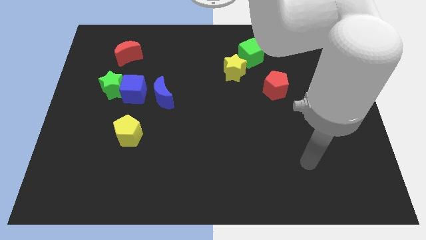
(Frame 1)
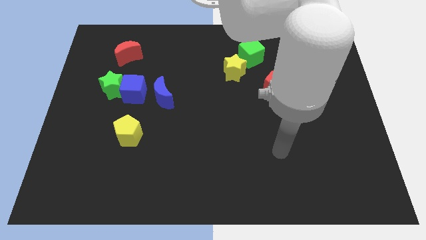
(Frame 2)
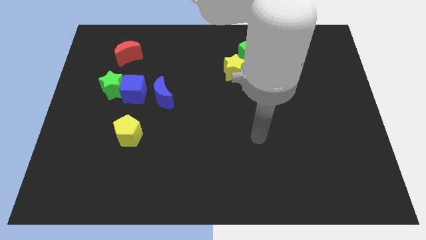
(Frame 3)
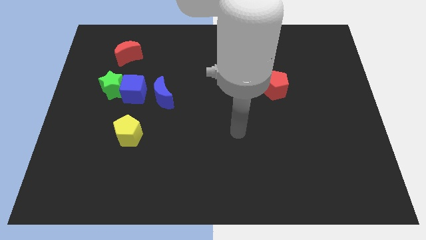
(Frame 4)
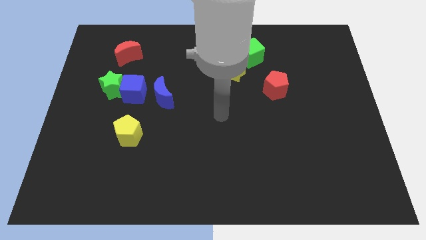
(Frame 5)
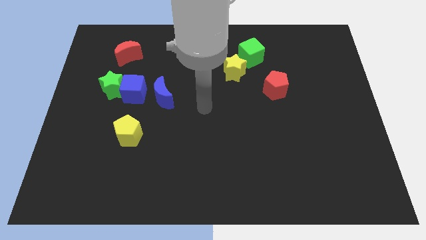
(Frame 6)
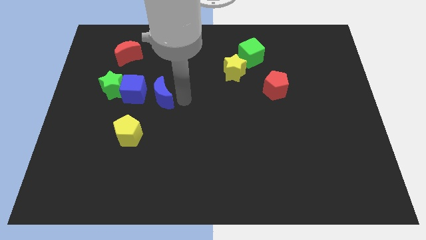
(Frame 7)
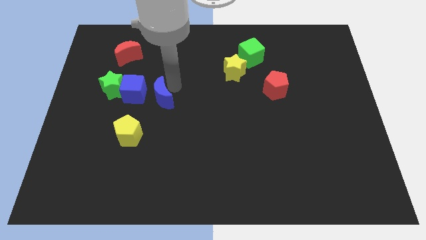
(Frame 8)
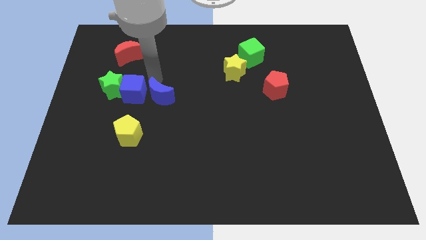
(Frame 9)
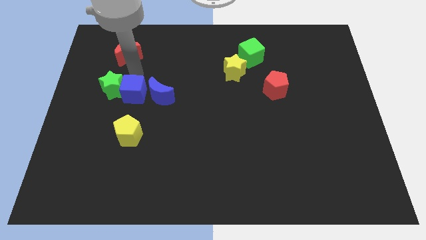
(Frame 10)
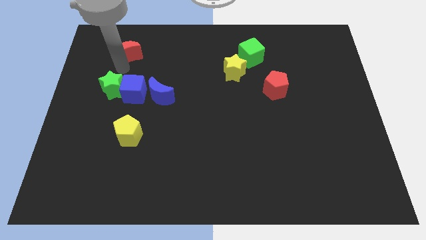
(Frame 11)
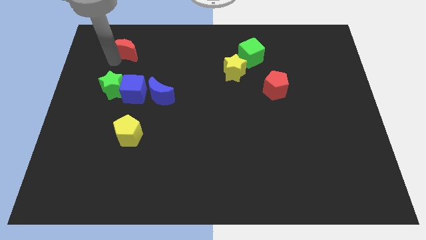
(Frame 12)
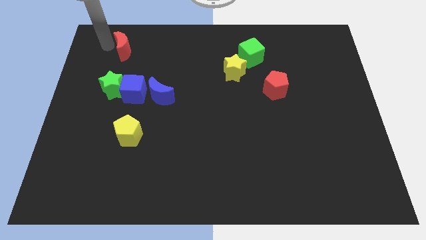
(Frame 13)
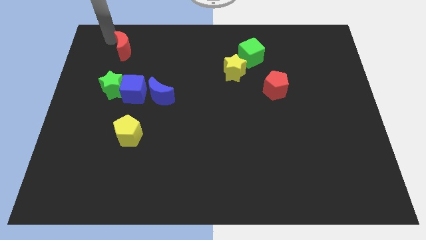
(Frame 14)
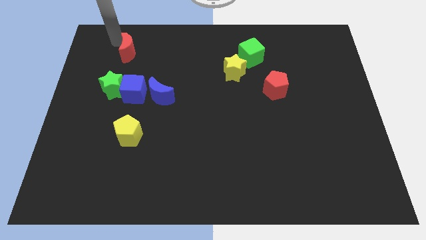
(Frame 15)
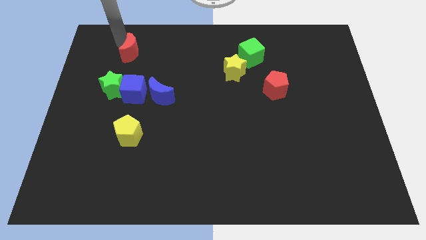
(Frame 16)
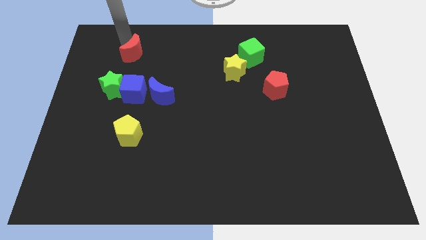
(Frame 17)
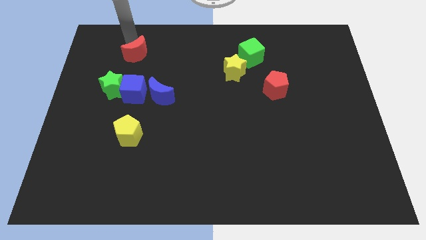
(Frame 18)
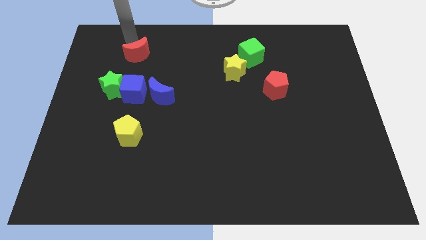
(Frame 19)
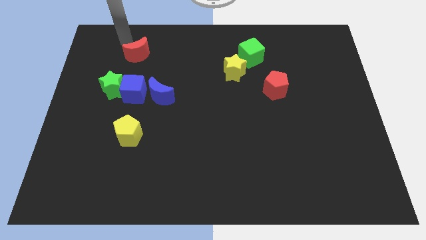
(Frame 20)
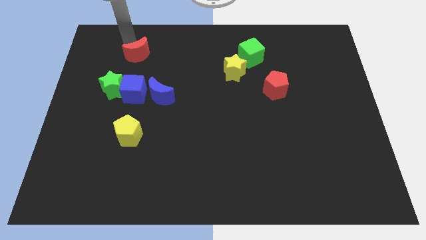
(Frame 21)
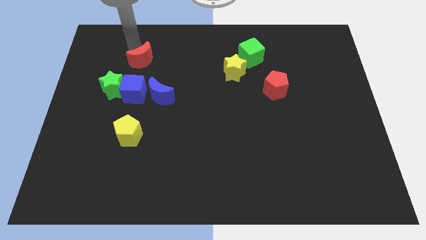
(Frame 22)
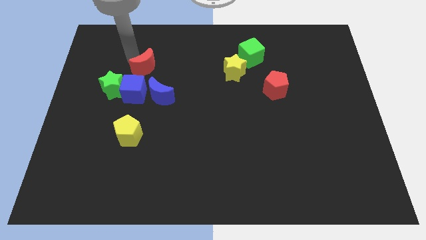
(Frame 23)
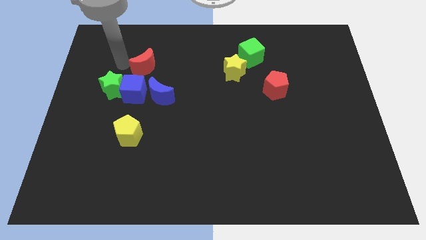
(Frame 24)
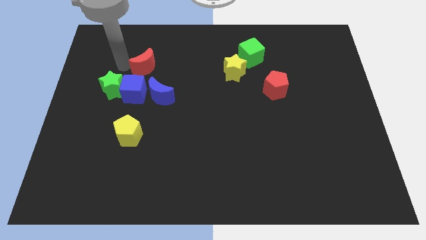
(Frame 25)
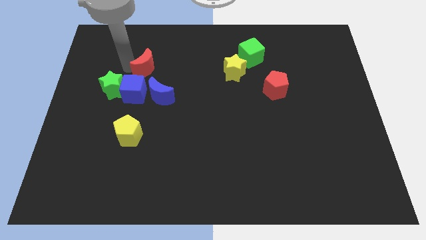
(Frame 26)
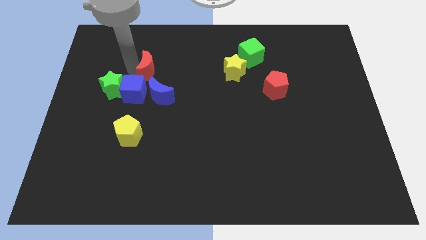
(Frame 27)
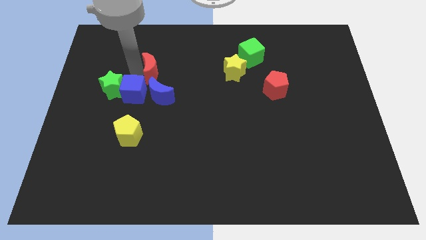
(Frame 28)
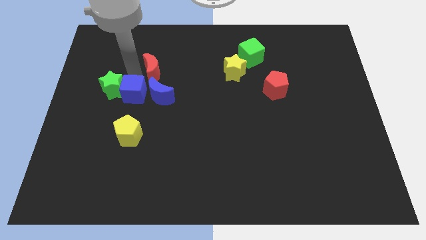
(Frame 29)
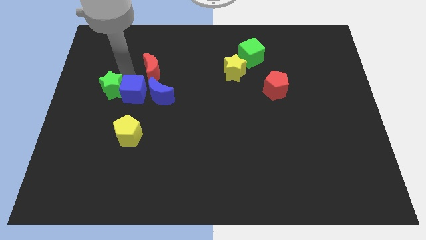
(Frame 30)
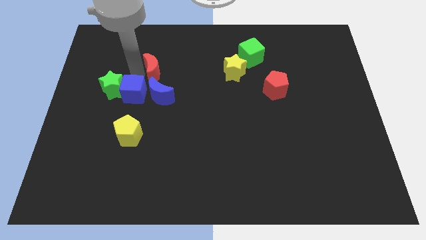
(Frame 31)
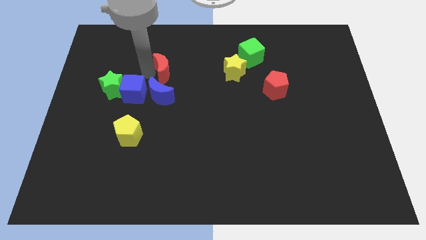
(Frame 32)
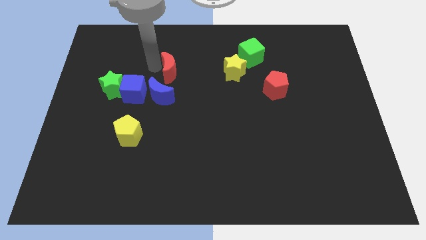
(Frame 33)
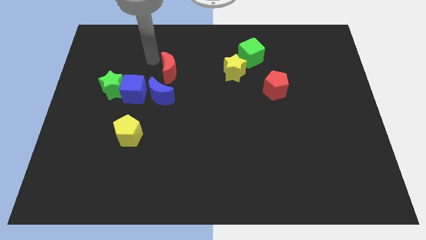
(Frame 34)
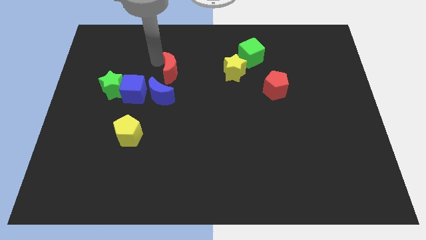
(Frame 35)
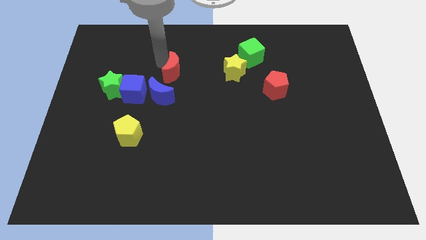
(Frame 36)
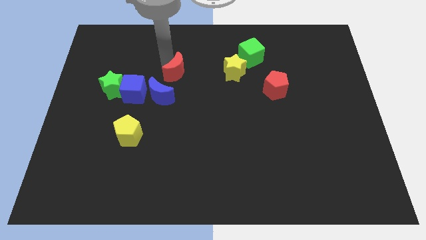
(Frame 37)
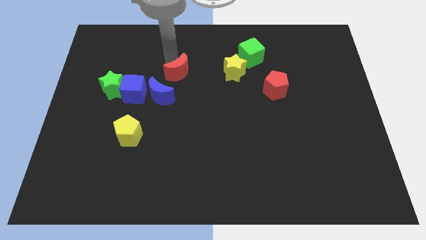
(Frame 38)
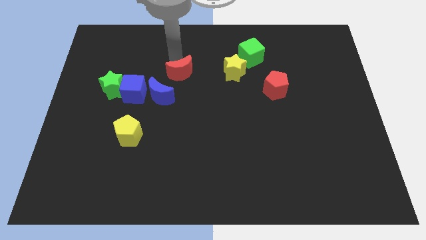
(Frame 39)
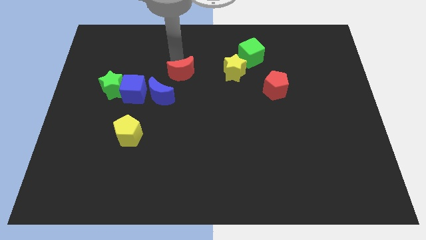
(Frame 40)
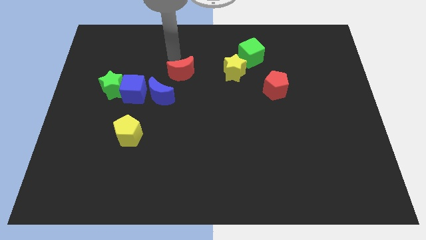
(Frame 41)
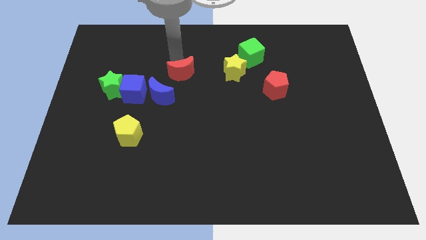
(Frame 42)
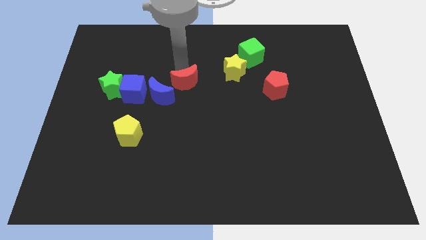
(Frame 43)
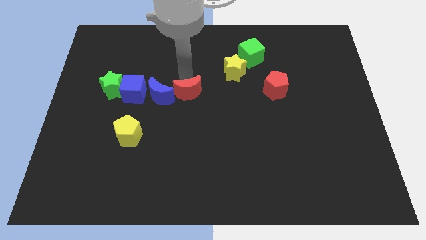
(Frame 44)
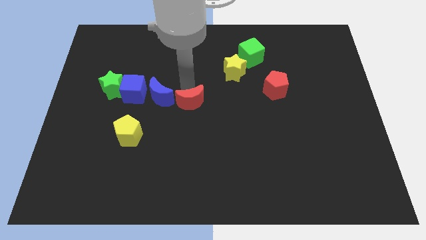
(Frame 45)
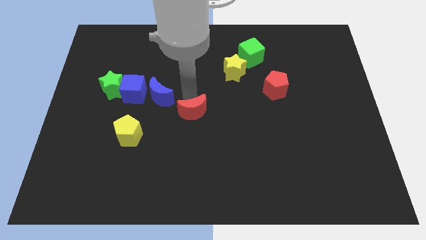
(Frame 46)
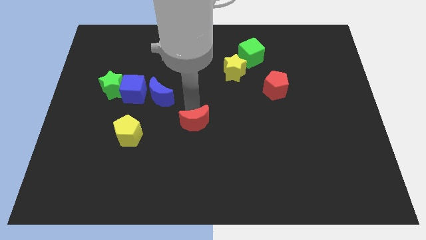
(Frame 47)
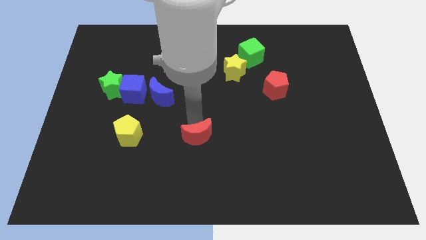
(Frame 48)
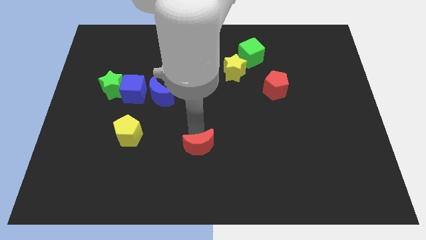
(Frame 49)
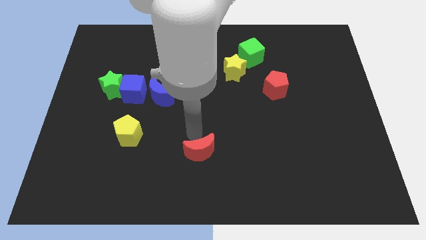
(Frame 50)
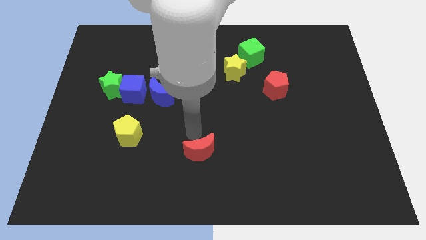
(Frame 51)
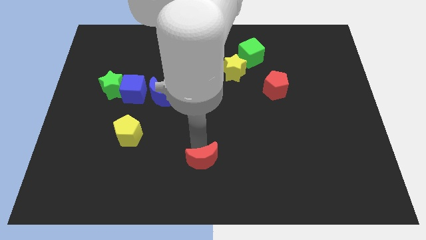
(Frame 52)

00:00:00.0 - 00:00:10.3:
put the red moon to the bottom

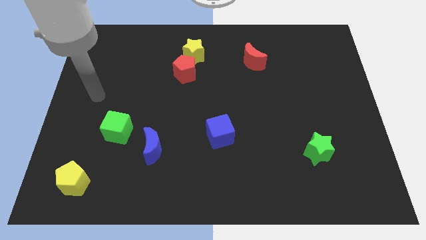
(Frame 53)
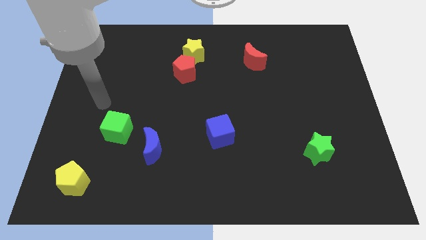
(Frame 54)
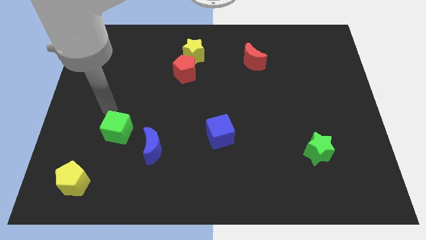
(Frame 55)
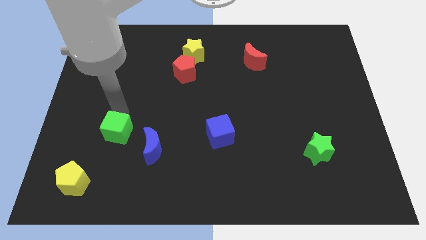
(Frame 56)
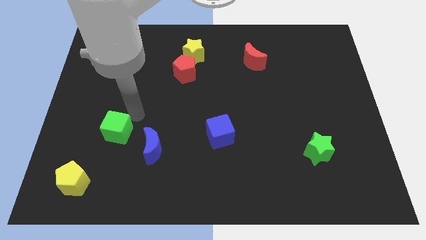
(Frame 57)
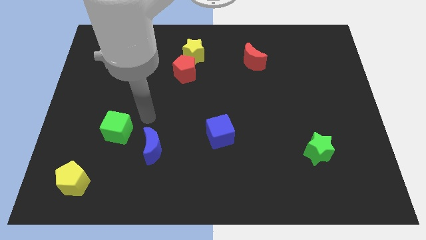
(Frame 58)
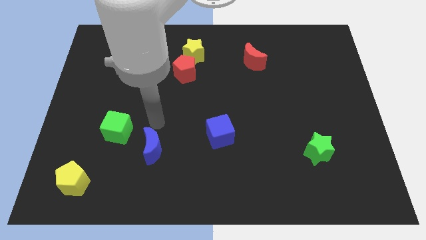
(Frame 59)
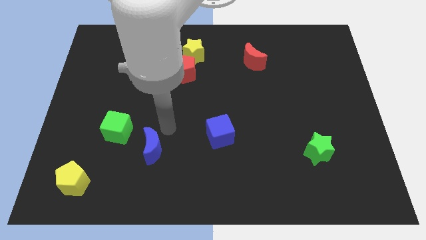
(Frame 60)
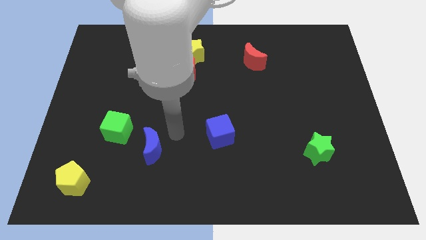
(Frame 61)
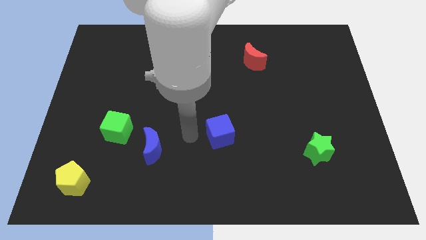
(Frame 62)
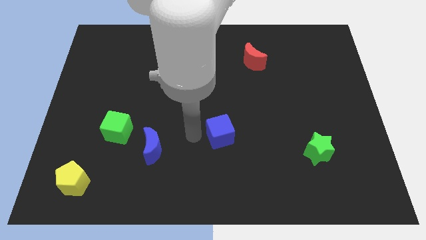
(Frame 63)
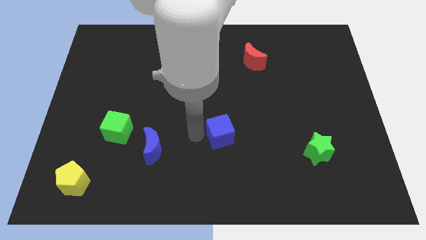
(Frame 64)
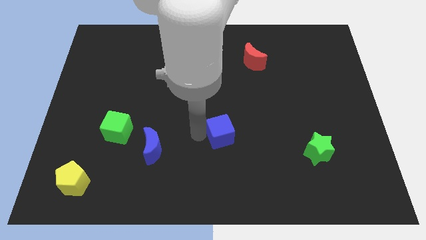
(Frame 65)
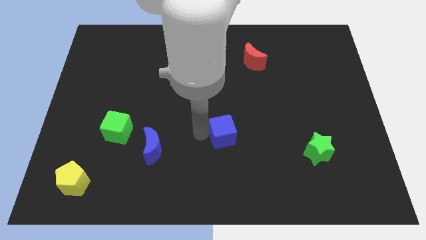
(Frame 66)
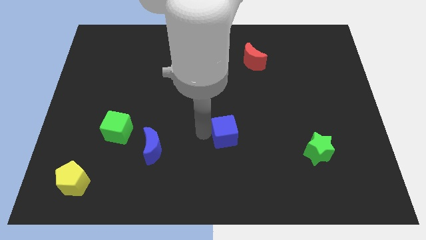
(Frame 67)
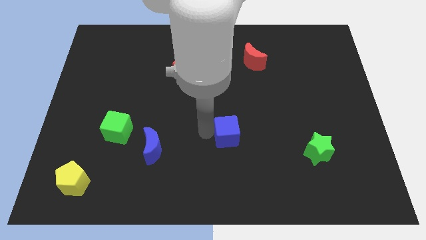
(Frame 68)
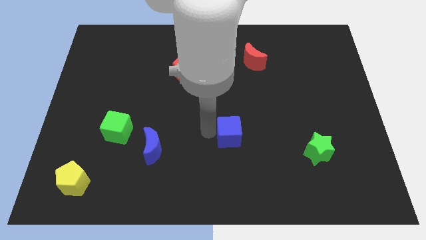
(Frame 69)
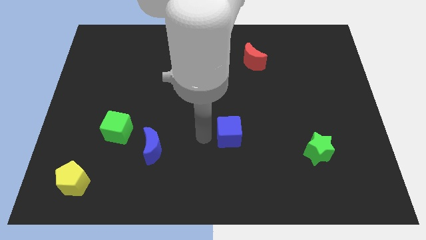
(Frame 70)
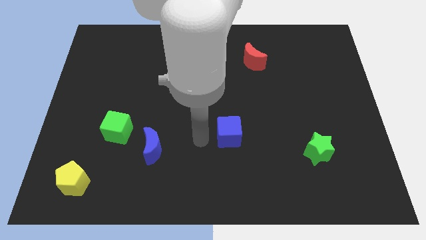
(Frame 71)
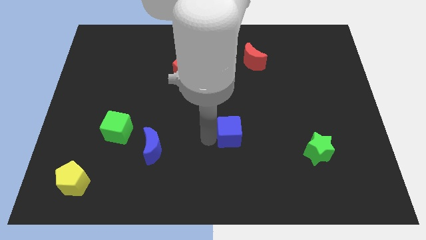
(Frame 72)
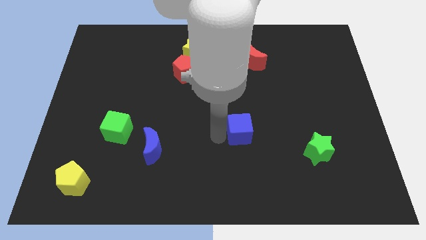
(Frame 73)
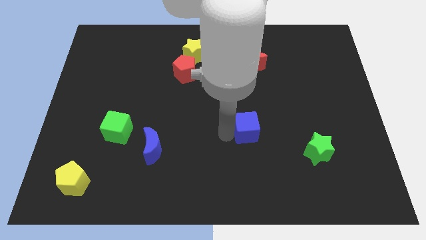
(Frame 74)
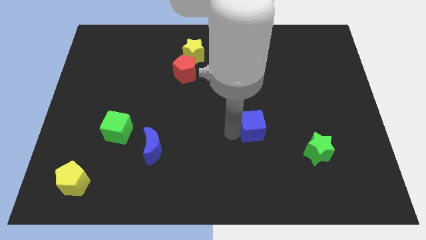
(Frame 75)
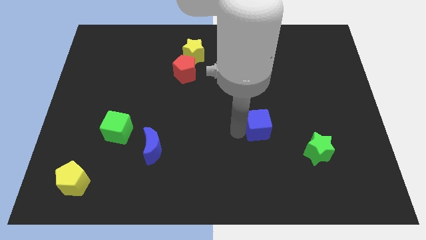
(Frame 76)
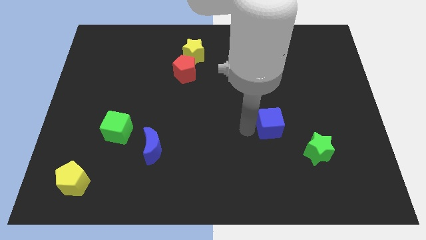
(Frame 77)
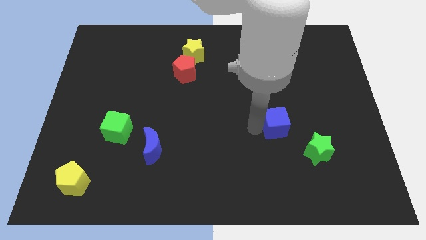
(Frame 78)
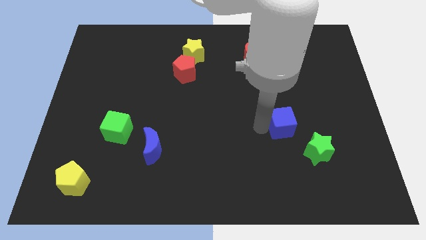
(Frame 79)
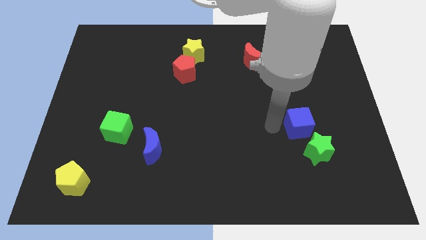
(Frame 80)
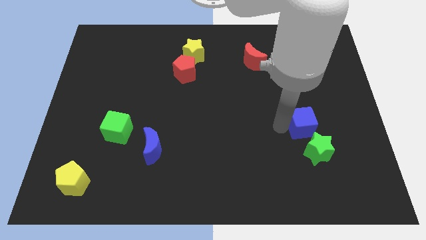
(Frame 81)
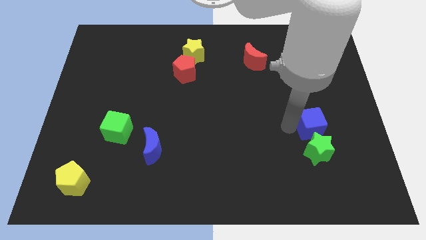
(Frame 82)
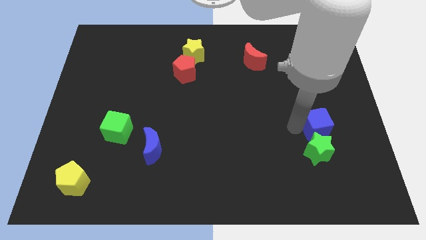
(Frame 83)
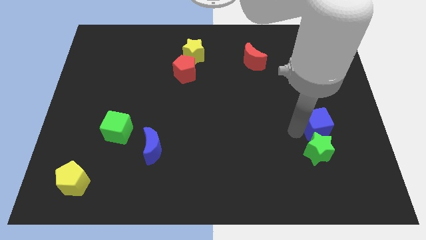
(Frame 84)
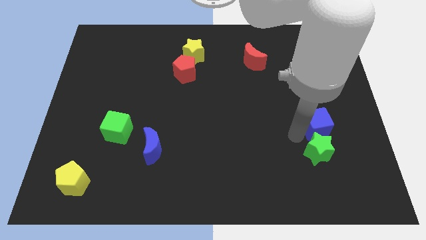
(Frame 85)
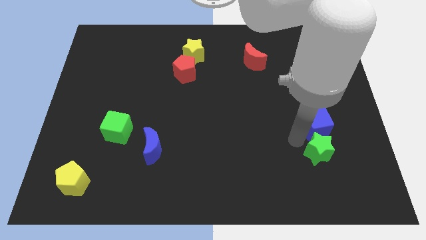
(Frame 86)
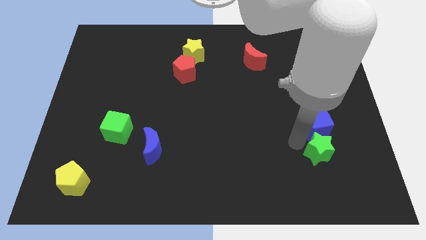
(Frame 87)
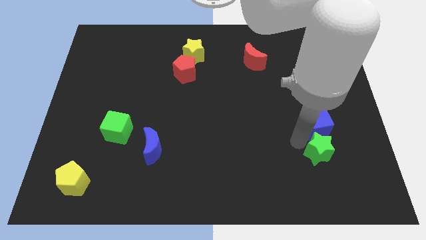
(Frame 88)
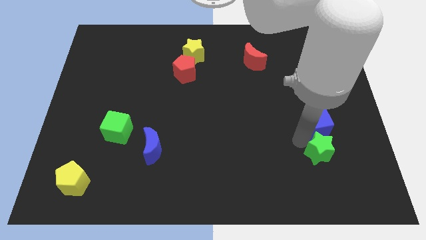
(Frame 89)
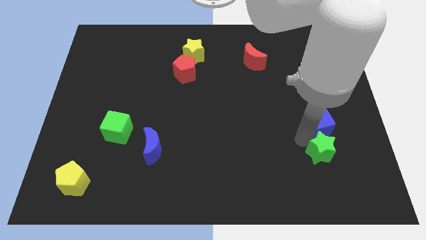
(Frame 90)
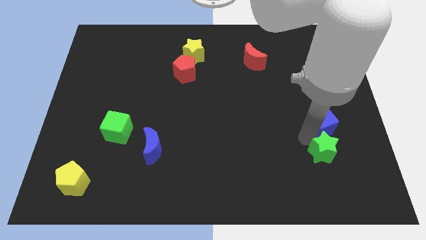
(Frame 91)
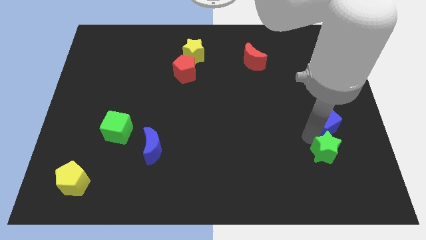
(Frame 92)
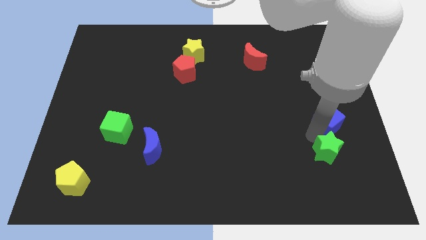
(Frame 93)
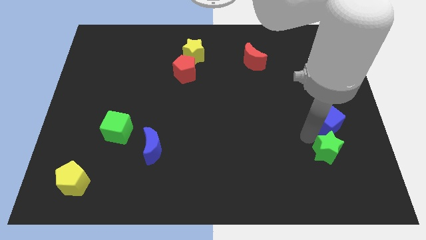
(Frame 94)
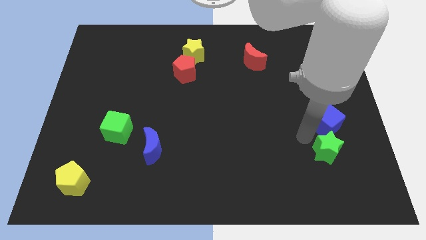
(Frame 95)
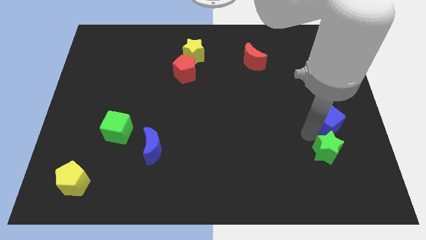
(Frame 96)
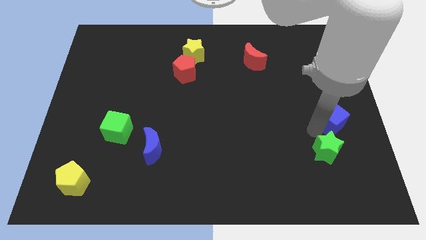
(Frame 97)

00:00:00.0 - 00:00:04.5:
put the blue cube to the right side
